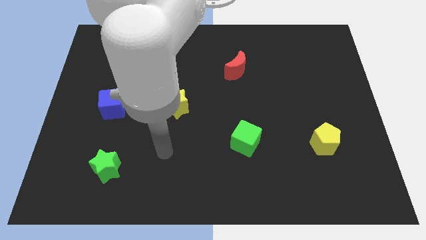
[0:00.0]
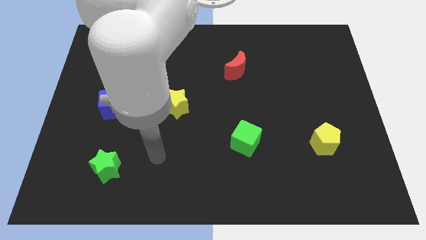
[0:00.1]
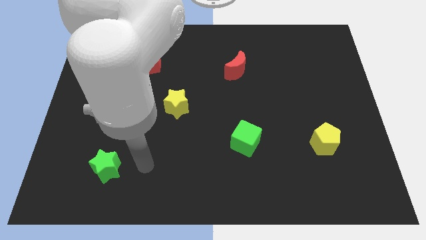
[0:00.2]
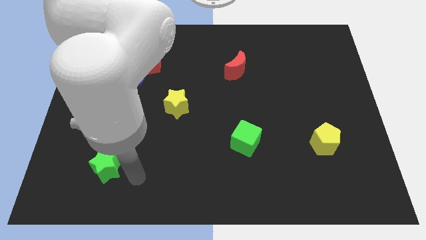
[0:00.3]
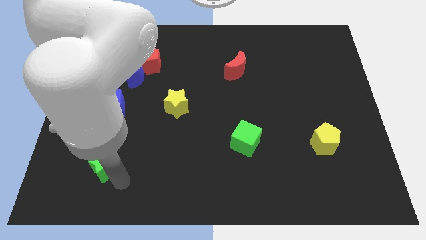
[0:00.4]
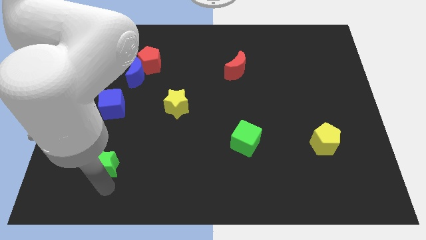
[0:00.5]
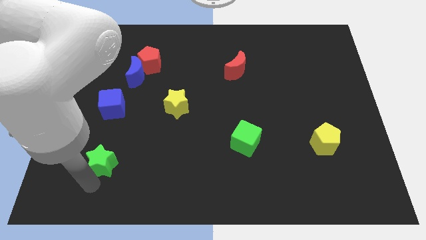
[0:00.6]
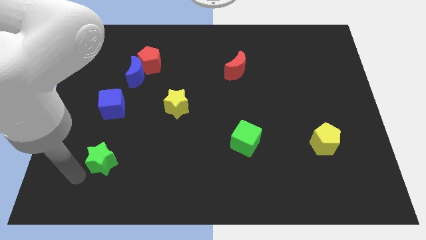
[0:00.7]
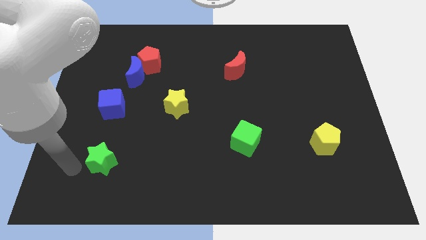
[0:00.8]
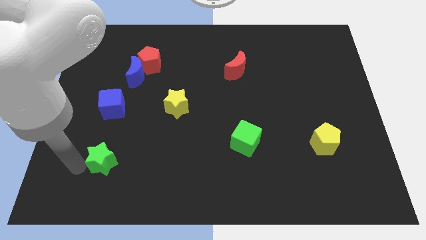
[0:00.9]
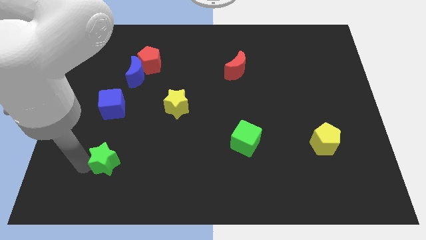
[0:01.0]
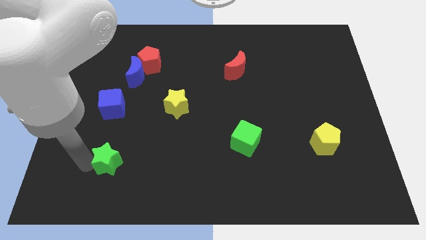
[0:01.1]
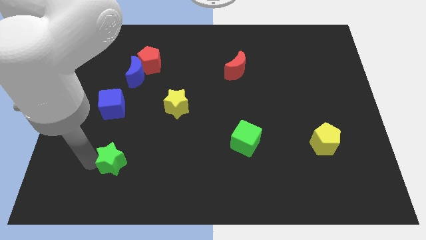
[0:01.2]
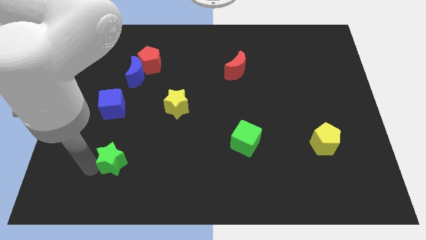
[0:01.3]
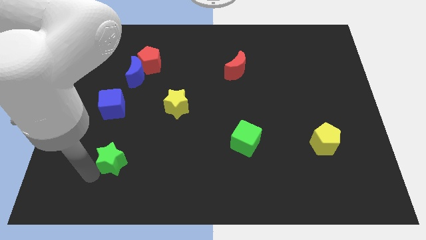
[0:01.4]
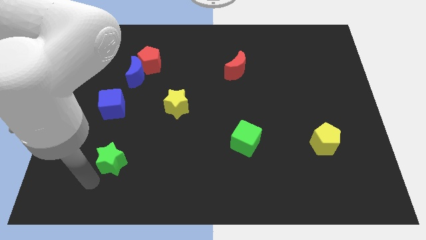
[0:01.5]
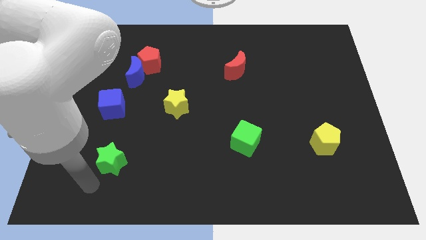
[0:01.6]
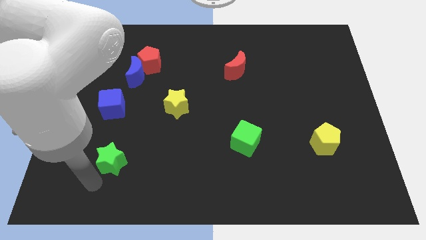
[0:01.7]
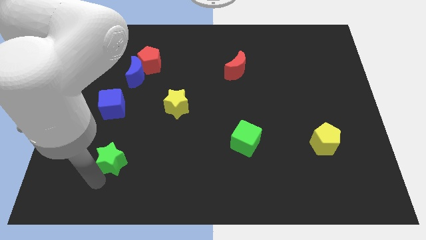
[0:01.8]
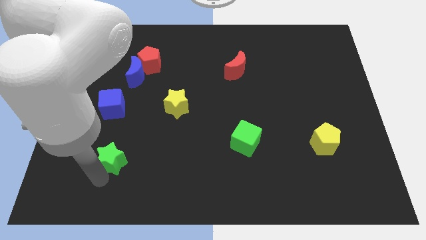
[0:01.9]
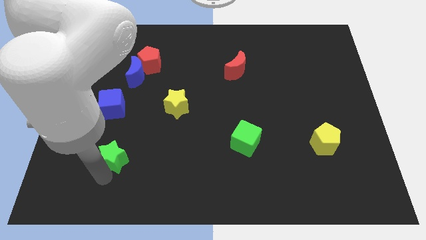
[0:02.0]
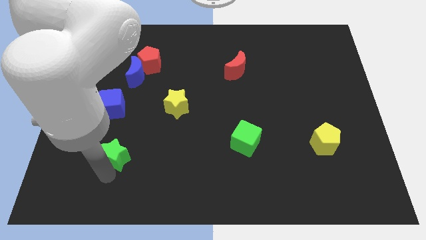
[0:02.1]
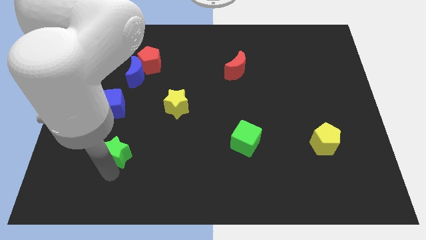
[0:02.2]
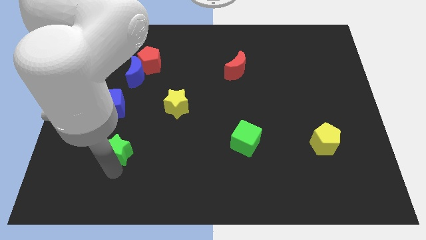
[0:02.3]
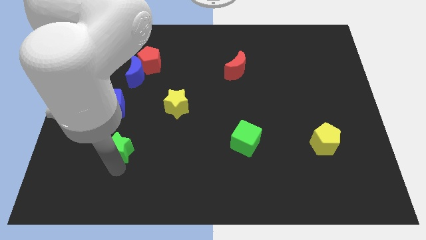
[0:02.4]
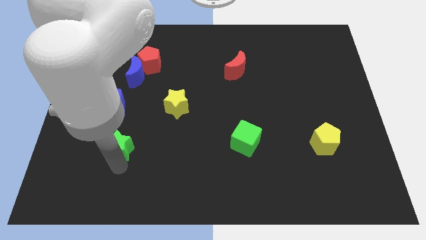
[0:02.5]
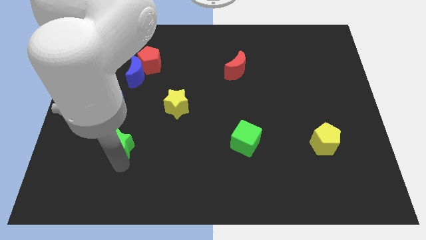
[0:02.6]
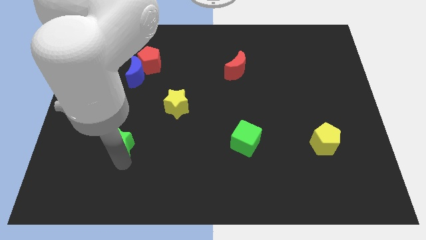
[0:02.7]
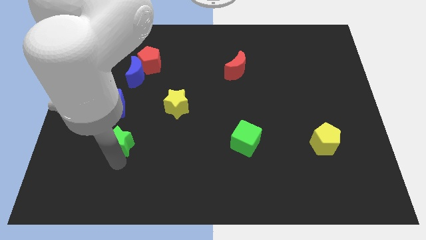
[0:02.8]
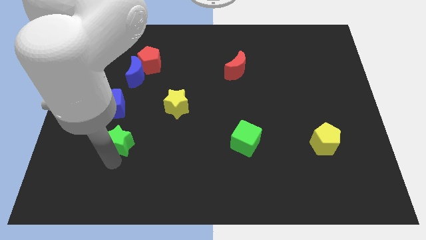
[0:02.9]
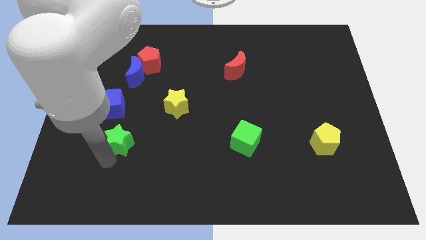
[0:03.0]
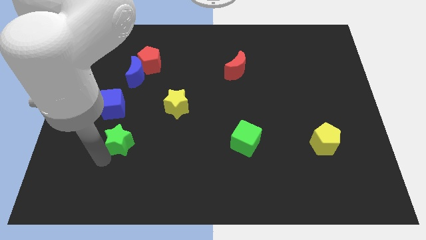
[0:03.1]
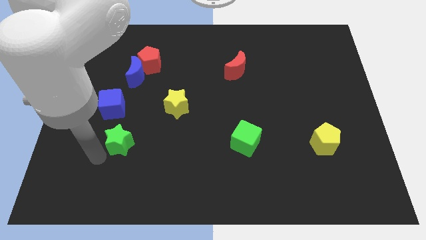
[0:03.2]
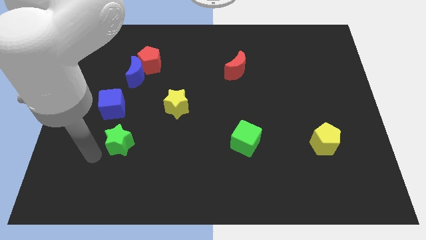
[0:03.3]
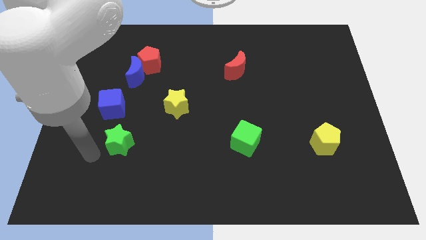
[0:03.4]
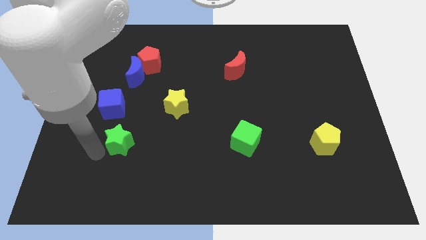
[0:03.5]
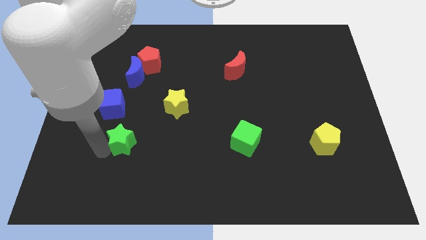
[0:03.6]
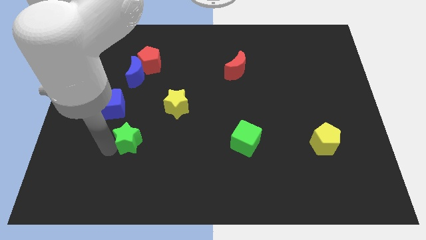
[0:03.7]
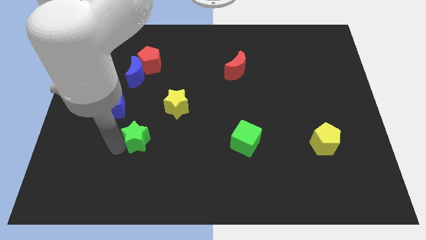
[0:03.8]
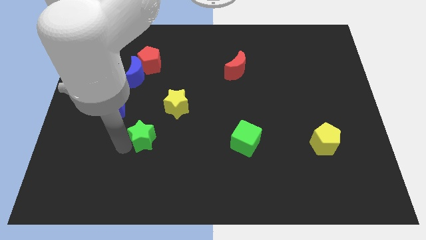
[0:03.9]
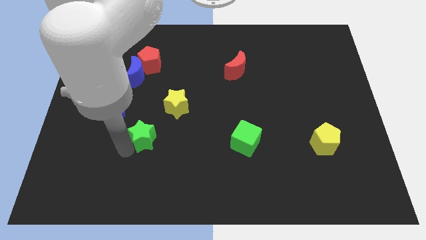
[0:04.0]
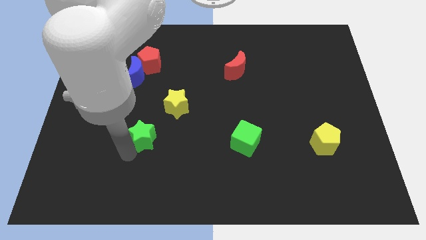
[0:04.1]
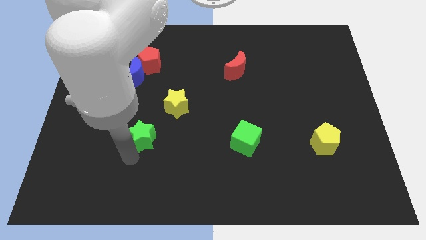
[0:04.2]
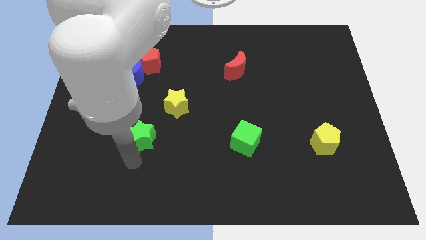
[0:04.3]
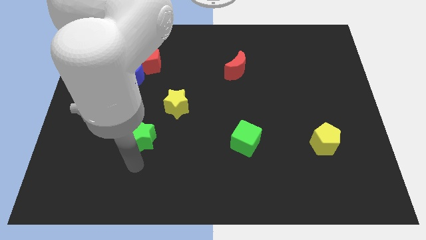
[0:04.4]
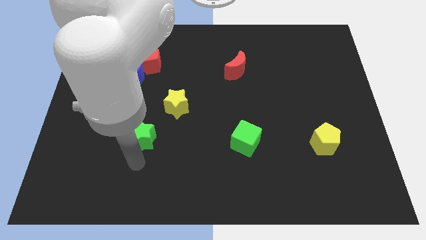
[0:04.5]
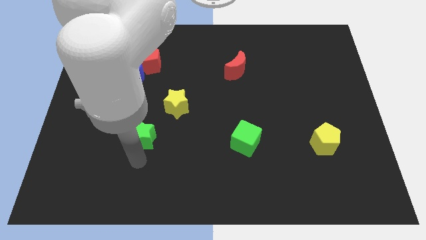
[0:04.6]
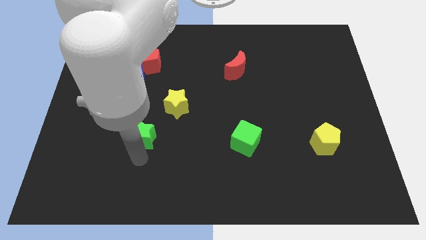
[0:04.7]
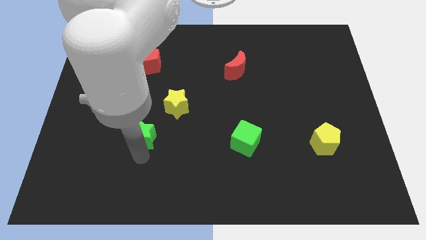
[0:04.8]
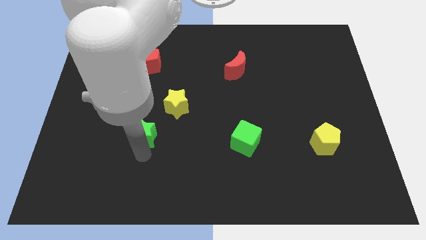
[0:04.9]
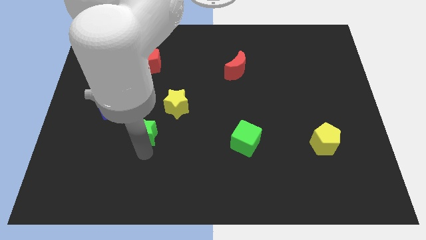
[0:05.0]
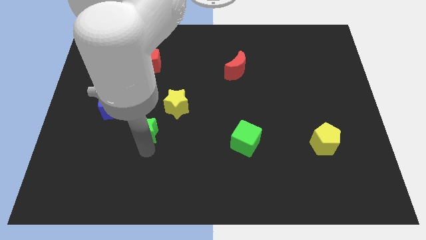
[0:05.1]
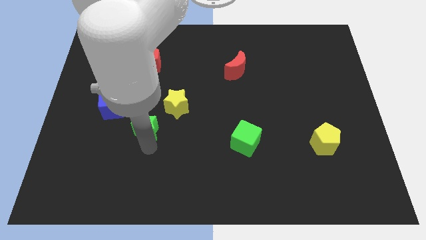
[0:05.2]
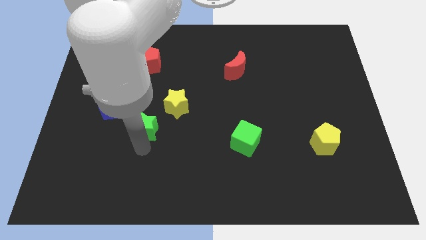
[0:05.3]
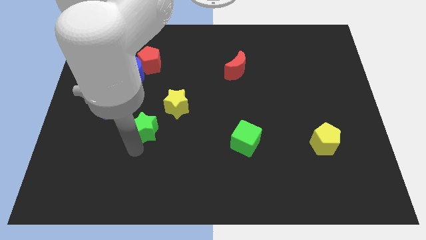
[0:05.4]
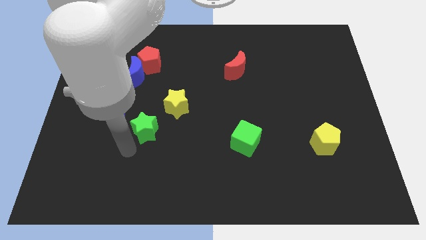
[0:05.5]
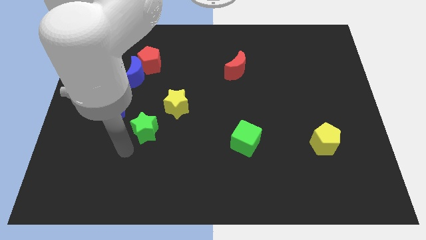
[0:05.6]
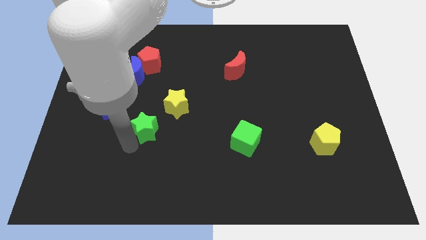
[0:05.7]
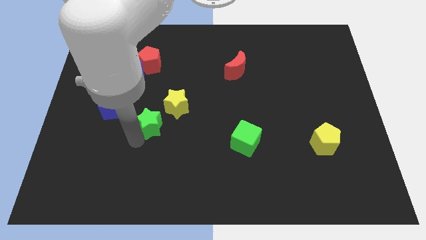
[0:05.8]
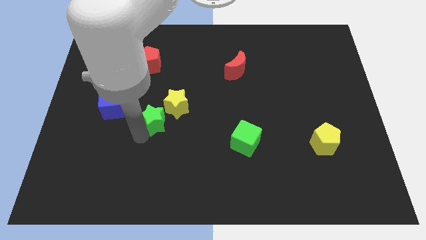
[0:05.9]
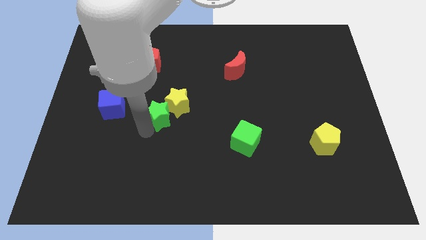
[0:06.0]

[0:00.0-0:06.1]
slide the green star towards the yellow star

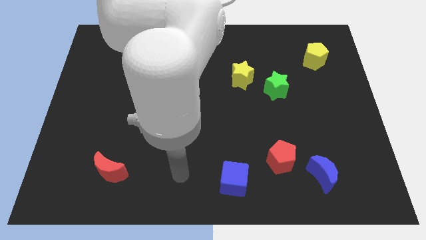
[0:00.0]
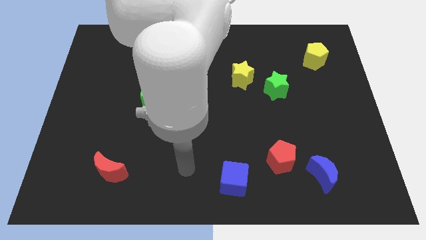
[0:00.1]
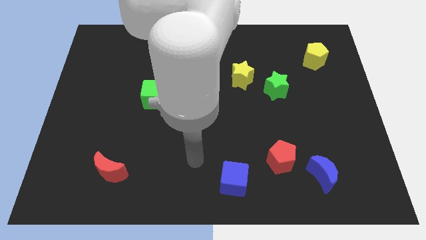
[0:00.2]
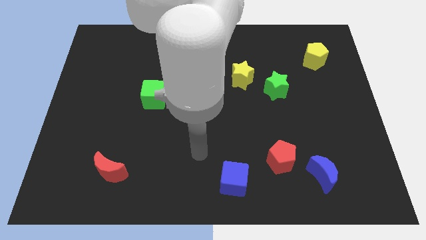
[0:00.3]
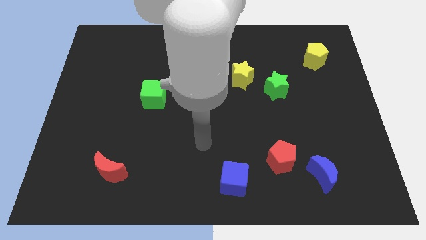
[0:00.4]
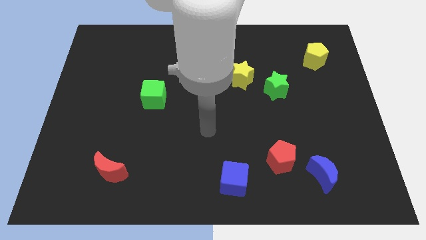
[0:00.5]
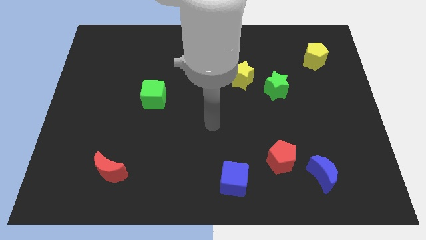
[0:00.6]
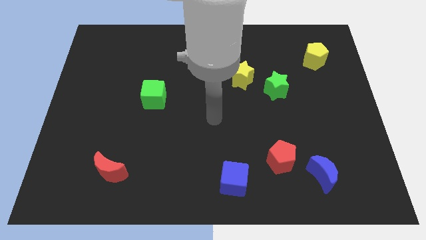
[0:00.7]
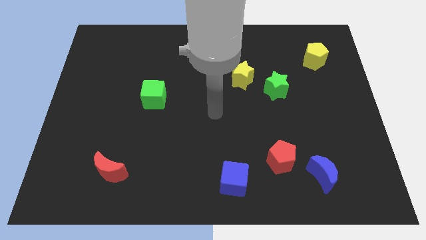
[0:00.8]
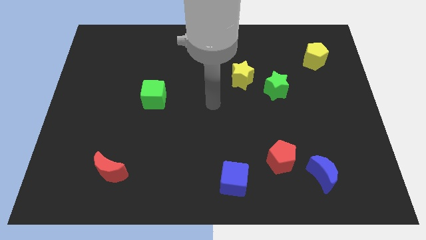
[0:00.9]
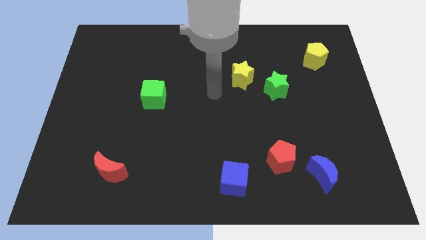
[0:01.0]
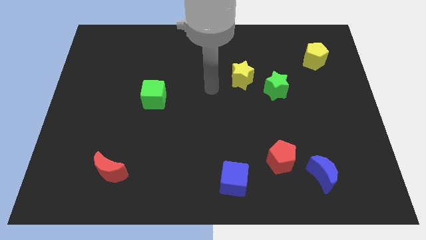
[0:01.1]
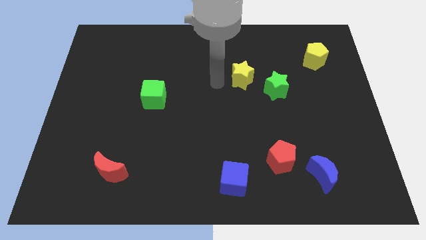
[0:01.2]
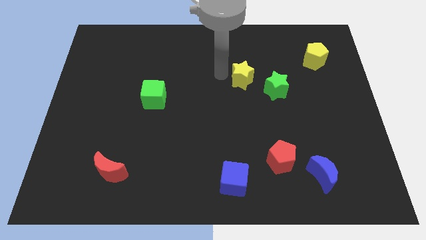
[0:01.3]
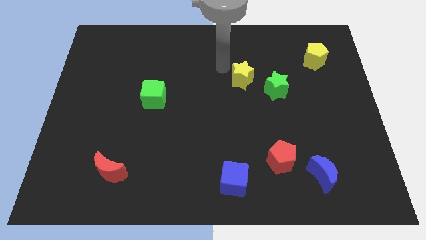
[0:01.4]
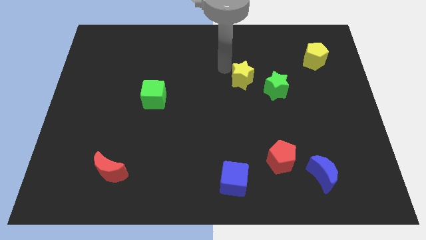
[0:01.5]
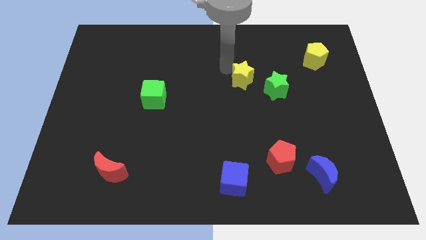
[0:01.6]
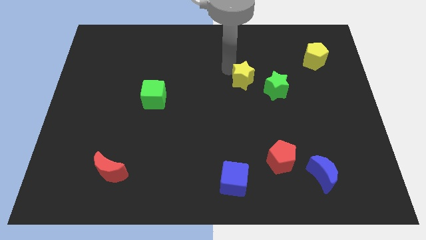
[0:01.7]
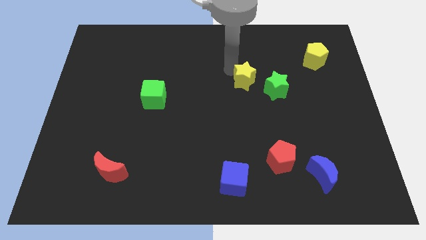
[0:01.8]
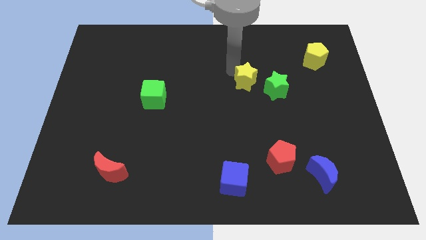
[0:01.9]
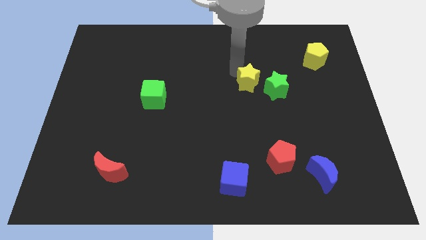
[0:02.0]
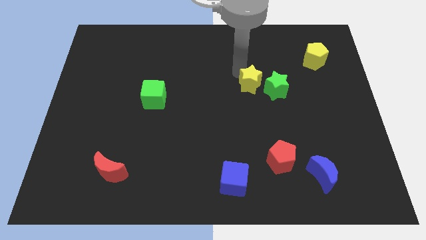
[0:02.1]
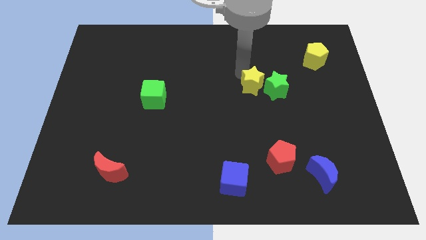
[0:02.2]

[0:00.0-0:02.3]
push the yellow star to the green star
